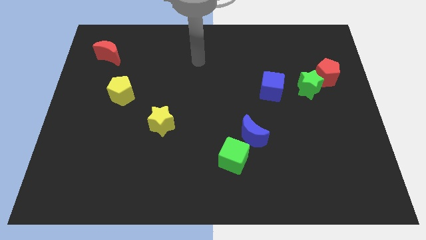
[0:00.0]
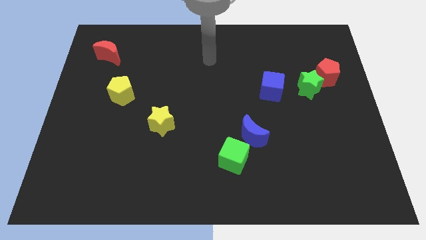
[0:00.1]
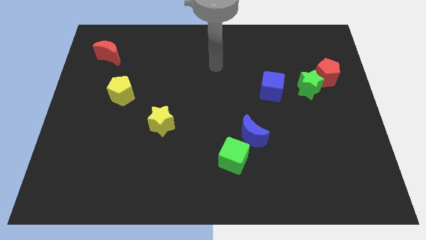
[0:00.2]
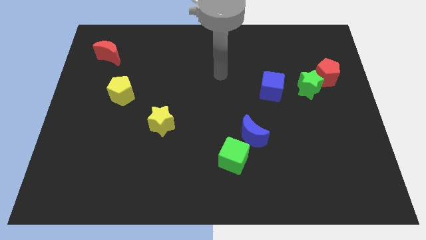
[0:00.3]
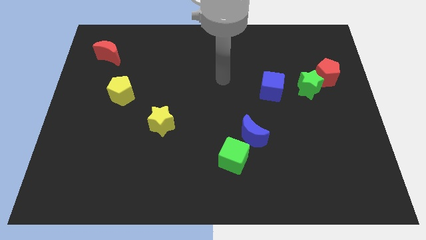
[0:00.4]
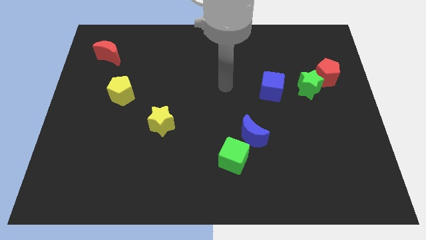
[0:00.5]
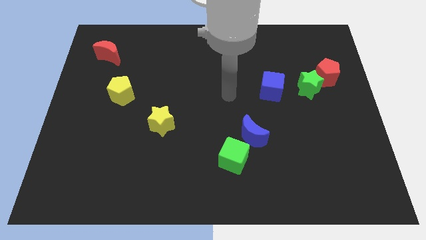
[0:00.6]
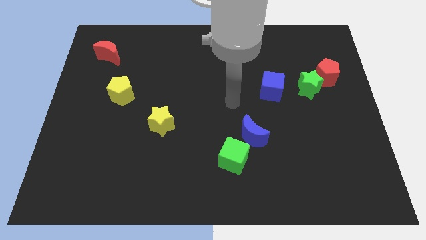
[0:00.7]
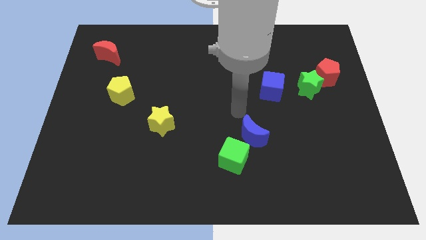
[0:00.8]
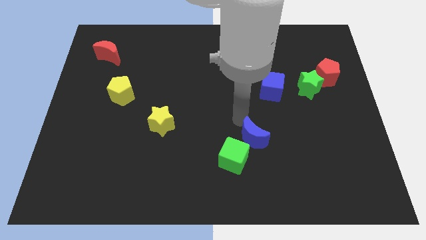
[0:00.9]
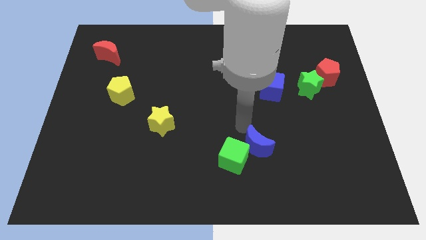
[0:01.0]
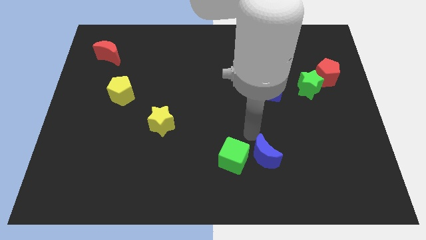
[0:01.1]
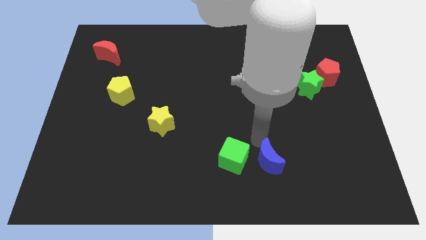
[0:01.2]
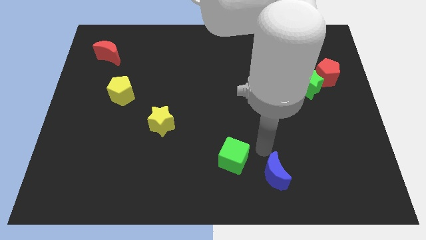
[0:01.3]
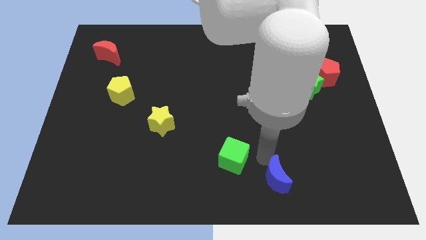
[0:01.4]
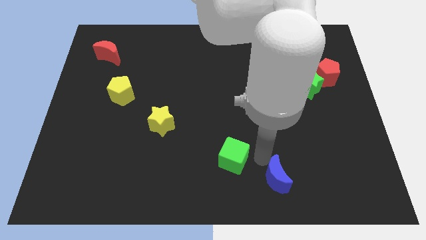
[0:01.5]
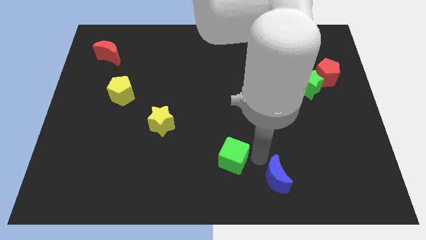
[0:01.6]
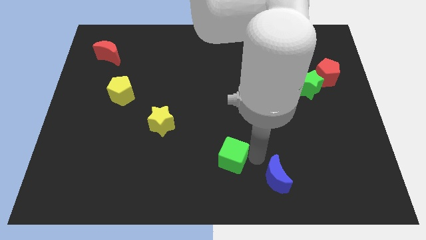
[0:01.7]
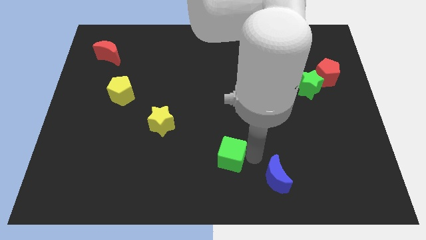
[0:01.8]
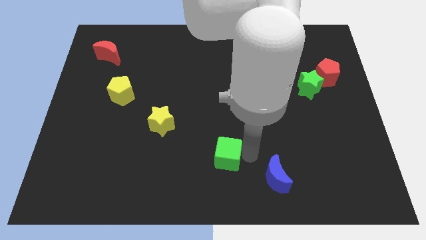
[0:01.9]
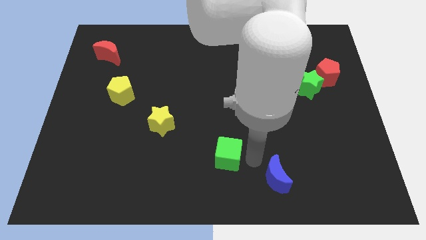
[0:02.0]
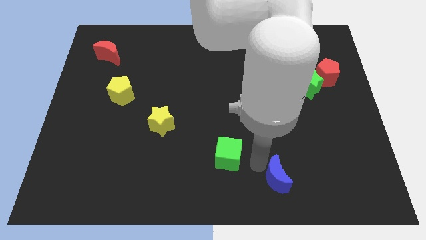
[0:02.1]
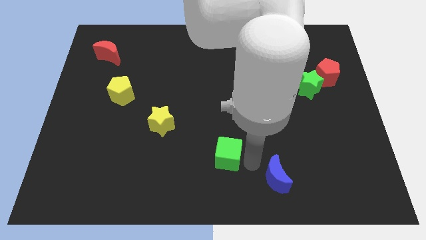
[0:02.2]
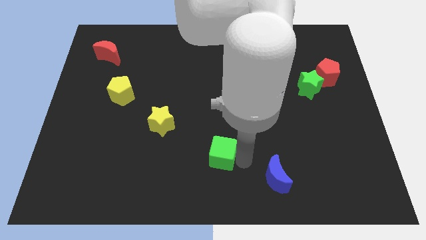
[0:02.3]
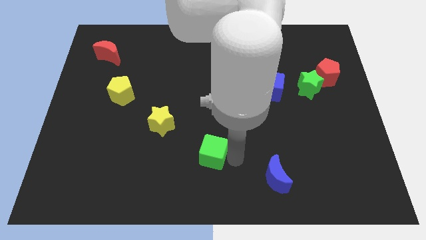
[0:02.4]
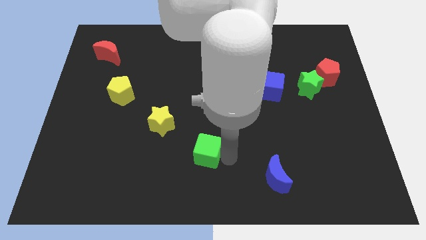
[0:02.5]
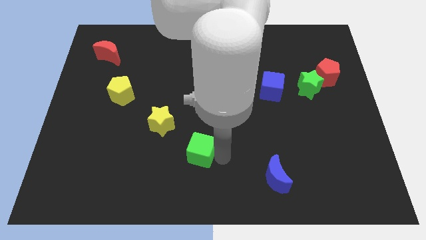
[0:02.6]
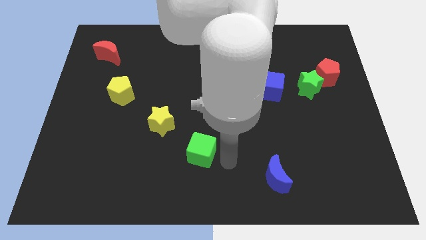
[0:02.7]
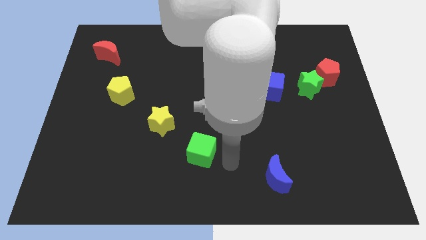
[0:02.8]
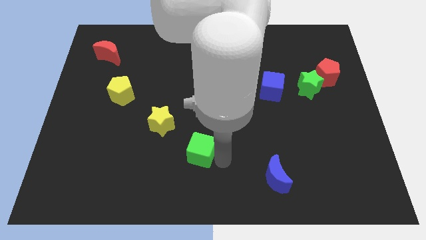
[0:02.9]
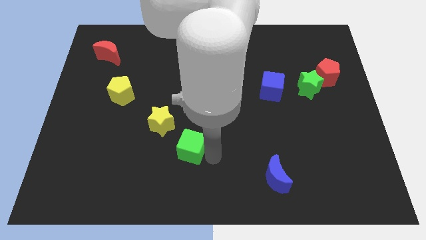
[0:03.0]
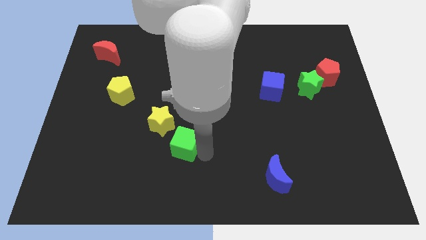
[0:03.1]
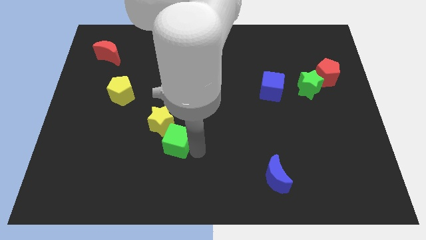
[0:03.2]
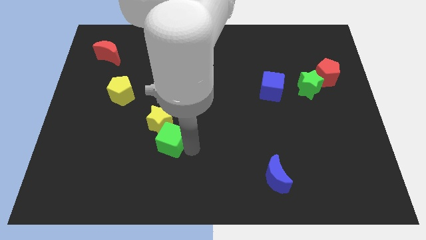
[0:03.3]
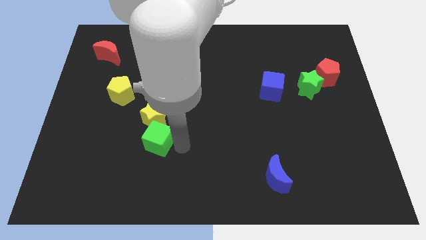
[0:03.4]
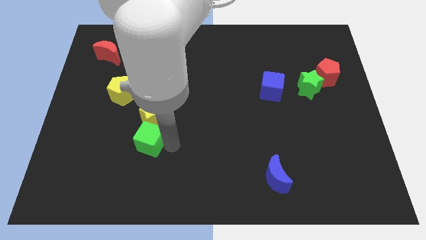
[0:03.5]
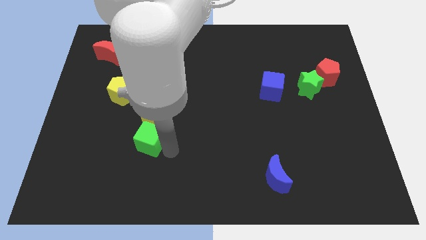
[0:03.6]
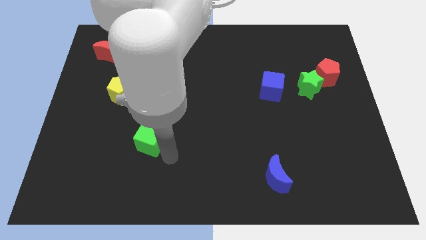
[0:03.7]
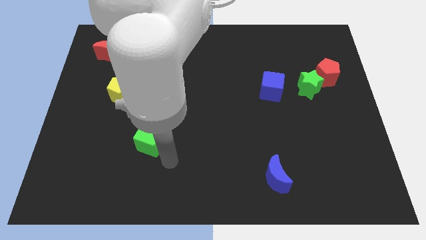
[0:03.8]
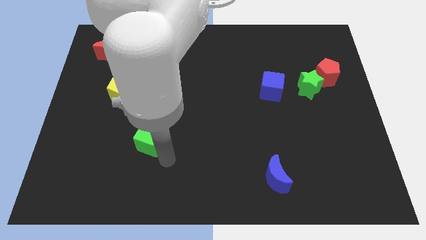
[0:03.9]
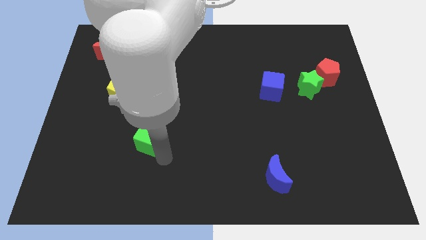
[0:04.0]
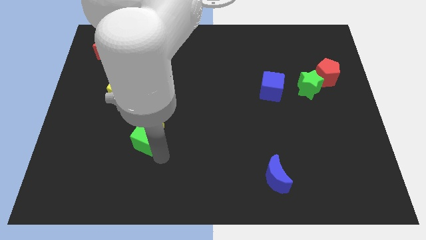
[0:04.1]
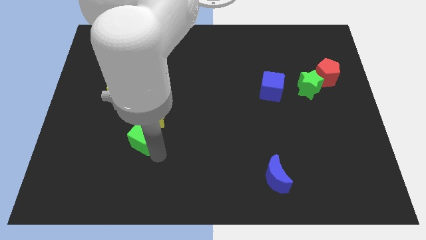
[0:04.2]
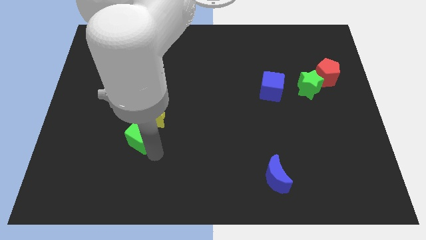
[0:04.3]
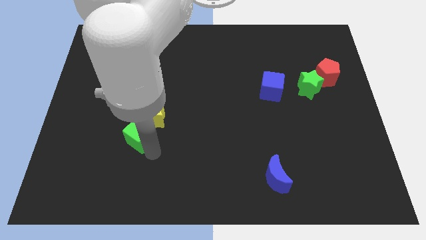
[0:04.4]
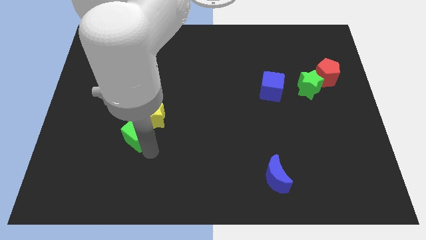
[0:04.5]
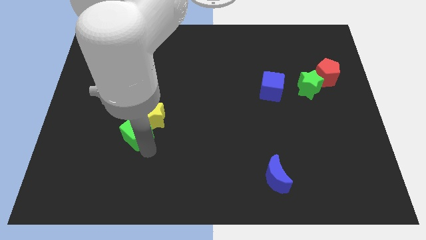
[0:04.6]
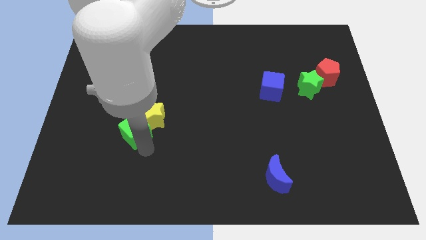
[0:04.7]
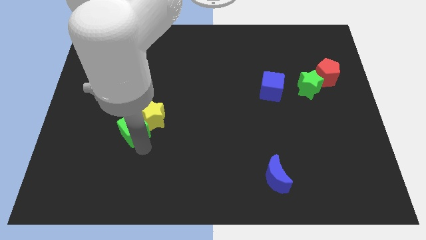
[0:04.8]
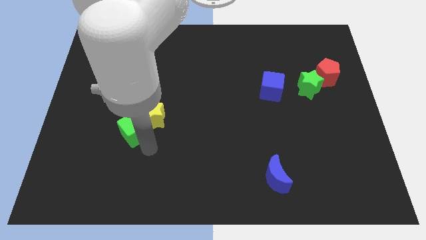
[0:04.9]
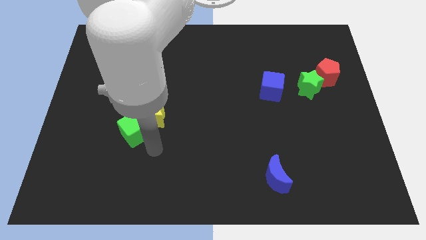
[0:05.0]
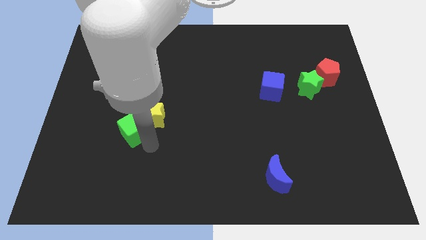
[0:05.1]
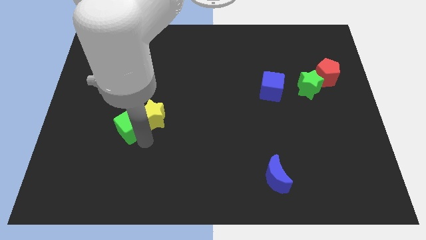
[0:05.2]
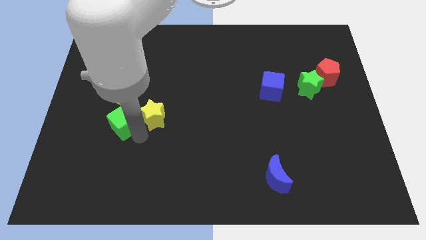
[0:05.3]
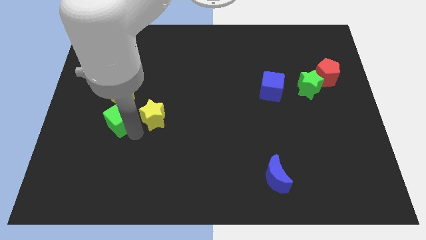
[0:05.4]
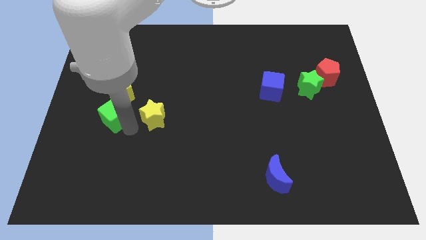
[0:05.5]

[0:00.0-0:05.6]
move the green cube to the bottom left side of the yellow pentagon

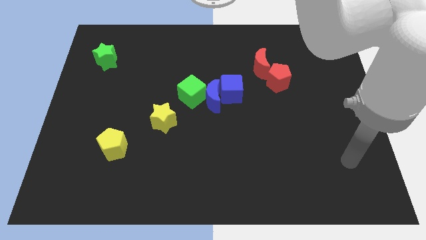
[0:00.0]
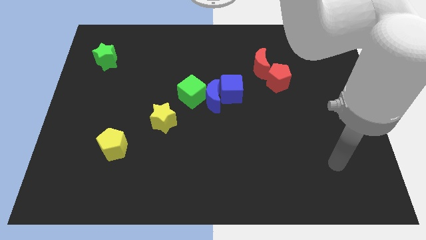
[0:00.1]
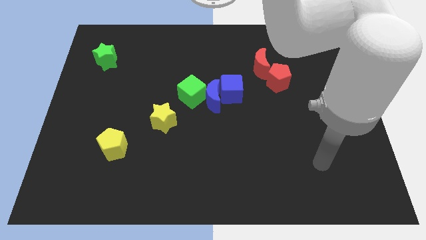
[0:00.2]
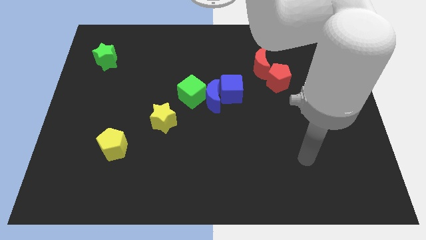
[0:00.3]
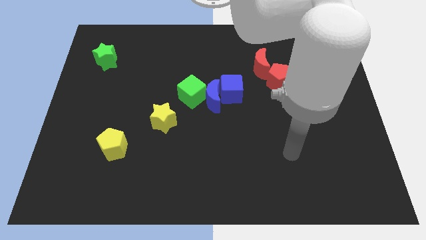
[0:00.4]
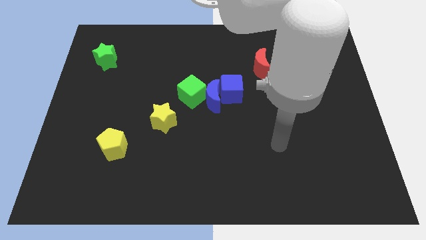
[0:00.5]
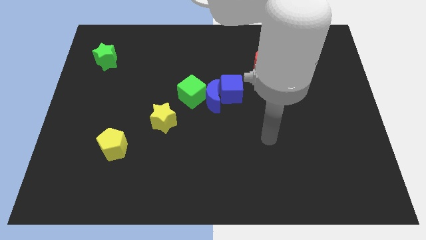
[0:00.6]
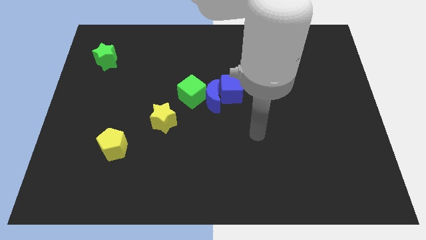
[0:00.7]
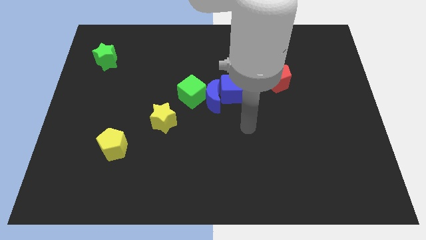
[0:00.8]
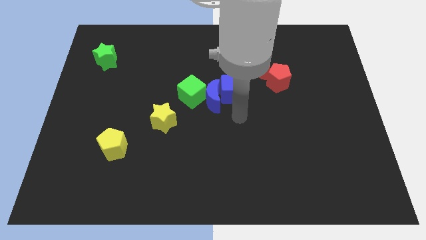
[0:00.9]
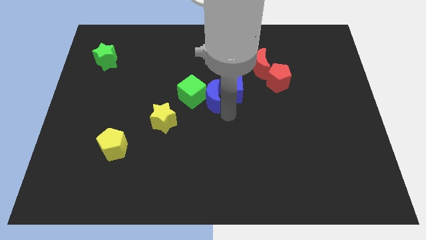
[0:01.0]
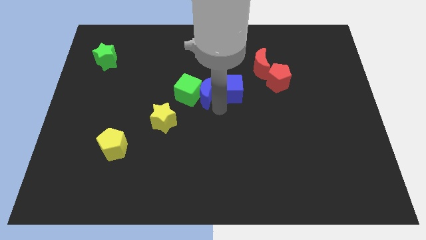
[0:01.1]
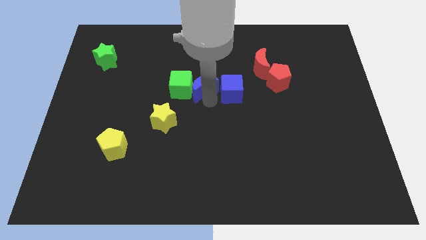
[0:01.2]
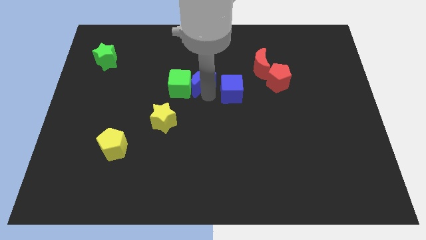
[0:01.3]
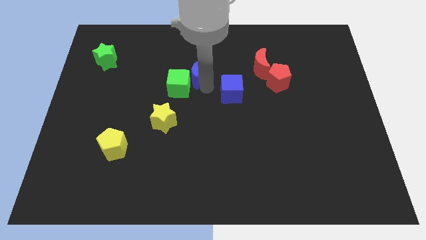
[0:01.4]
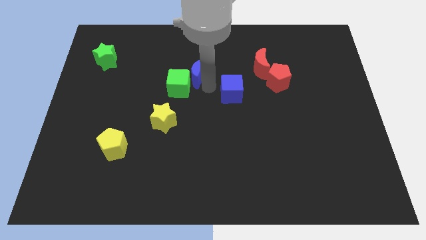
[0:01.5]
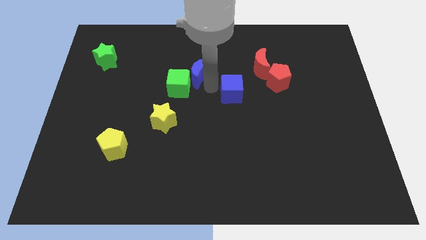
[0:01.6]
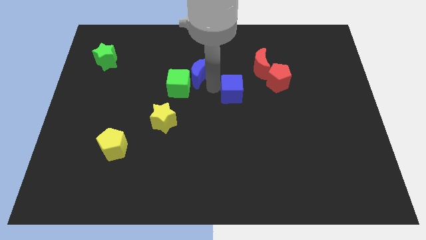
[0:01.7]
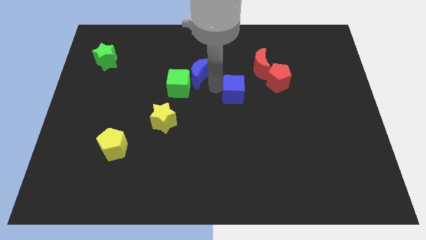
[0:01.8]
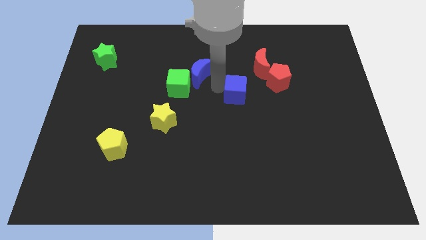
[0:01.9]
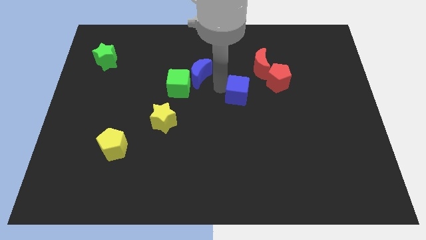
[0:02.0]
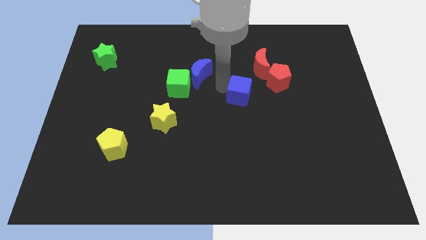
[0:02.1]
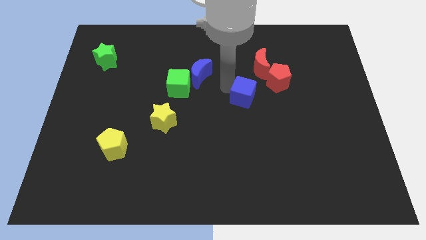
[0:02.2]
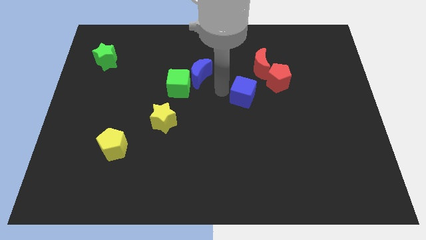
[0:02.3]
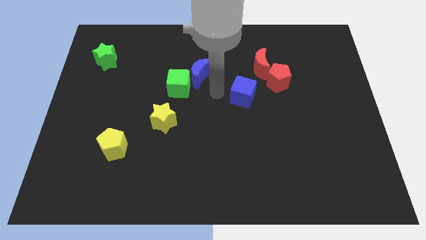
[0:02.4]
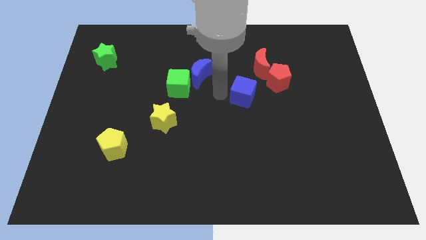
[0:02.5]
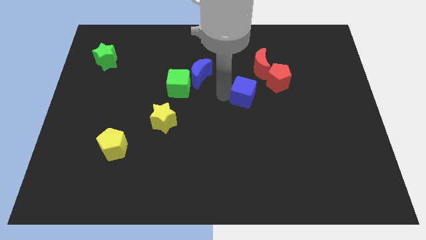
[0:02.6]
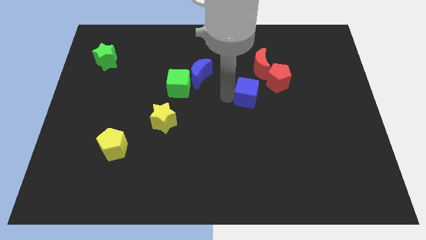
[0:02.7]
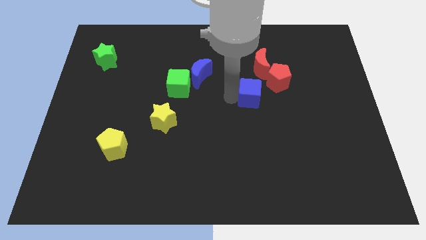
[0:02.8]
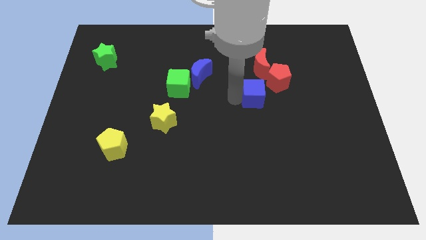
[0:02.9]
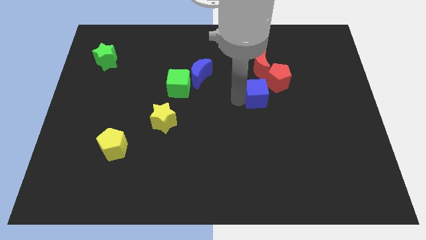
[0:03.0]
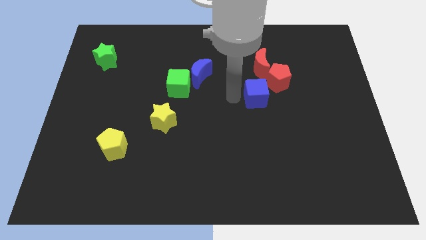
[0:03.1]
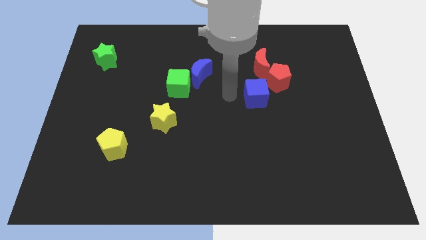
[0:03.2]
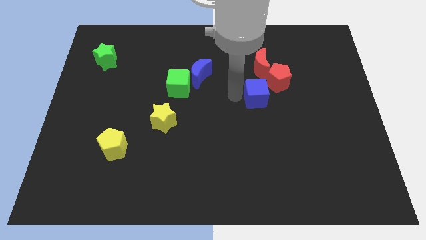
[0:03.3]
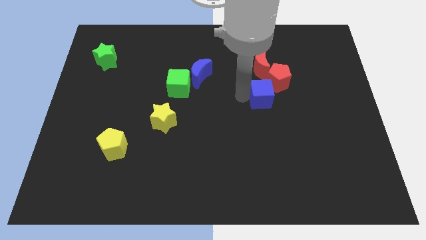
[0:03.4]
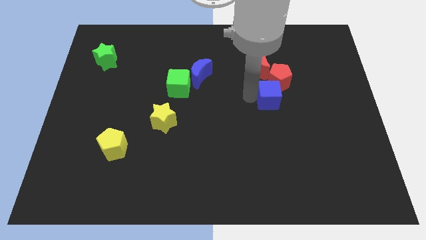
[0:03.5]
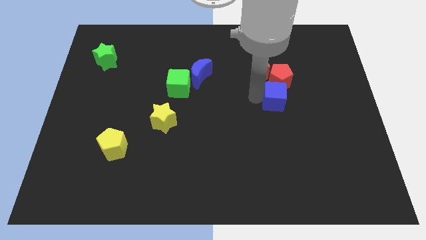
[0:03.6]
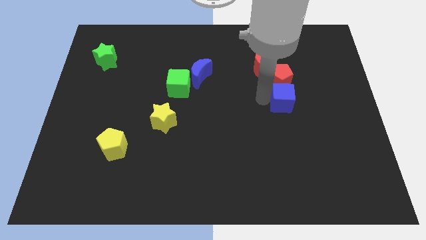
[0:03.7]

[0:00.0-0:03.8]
put the blue cube to the bottom right side of the red pentagon
